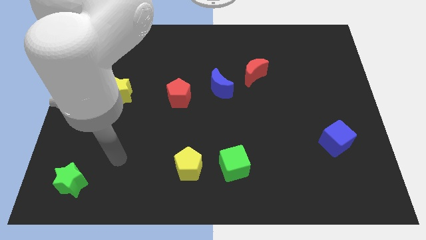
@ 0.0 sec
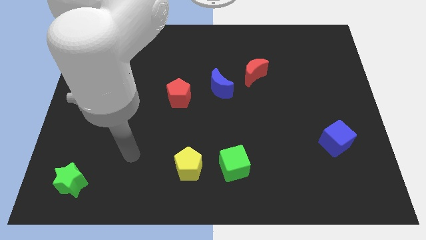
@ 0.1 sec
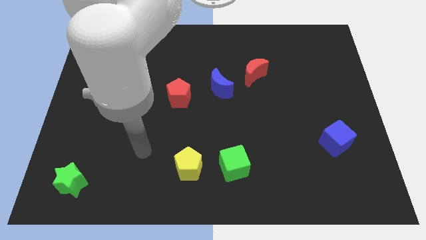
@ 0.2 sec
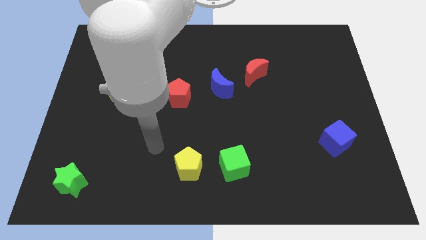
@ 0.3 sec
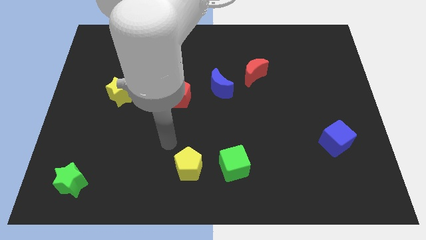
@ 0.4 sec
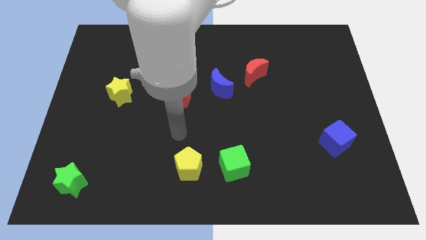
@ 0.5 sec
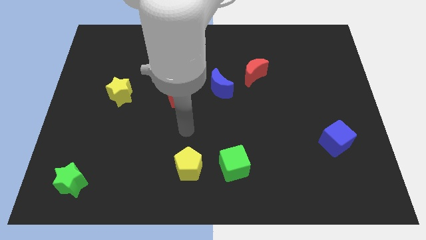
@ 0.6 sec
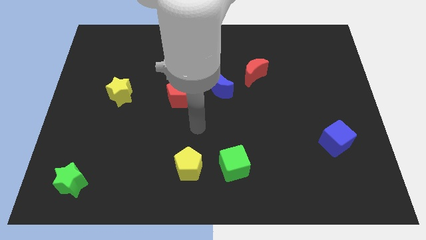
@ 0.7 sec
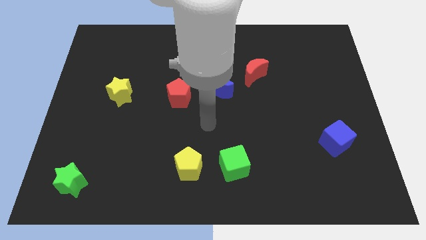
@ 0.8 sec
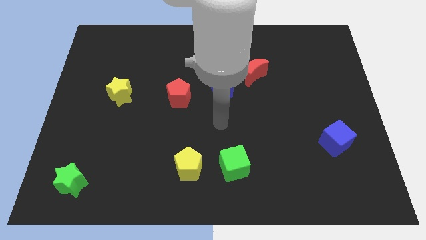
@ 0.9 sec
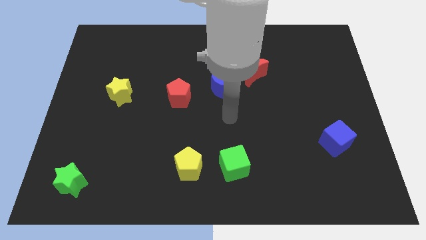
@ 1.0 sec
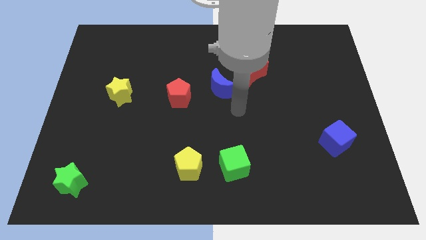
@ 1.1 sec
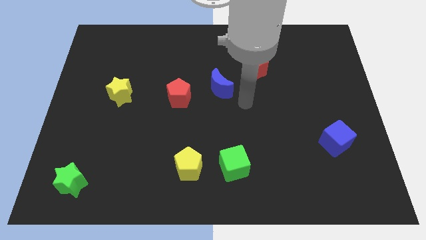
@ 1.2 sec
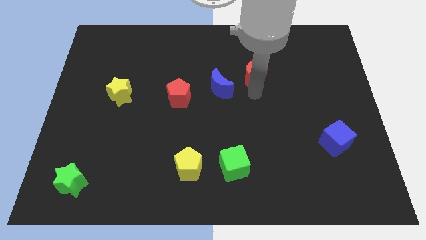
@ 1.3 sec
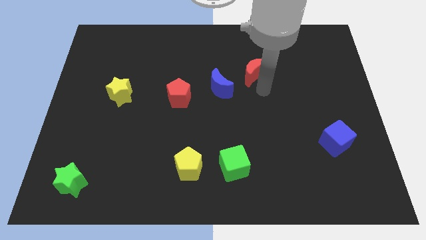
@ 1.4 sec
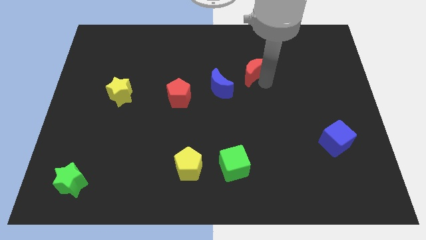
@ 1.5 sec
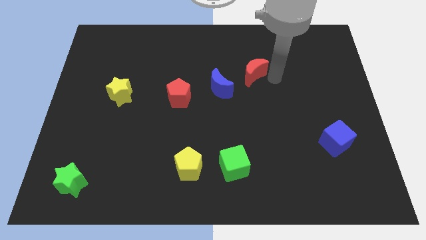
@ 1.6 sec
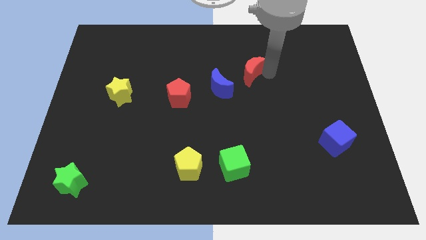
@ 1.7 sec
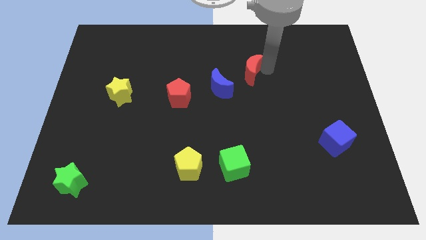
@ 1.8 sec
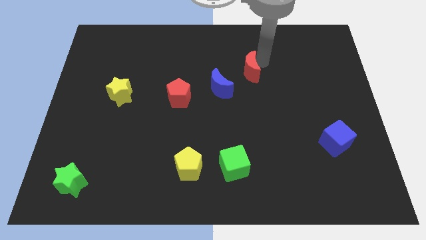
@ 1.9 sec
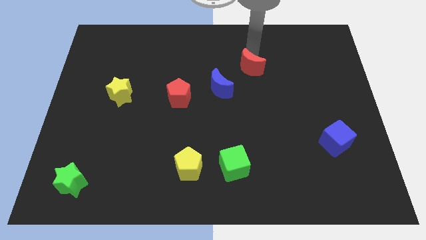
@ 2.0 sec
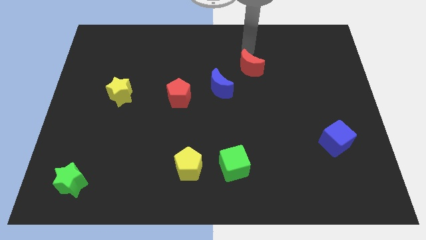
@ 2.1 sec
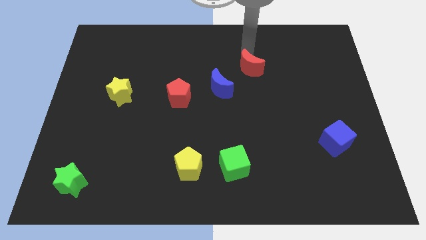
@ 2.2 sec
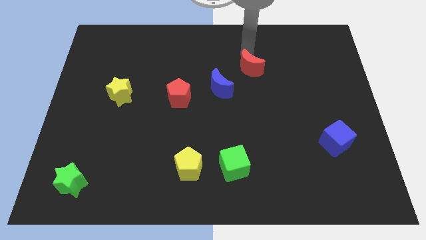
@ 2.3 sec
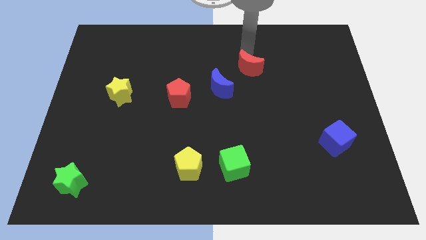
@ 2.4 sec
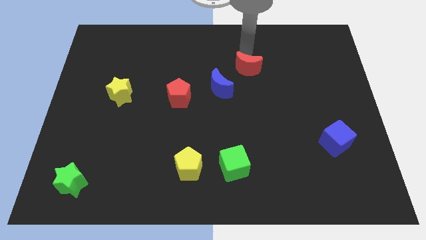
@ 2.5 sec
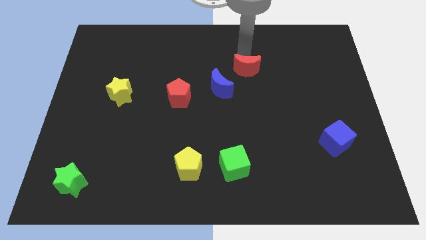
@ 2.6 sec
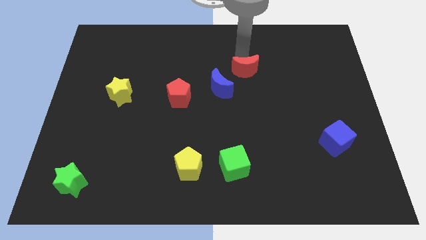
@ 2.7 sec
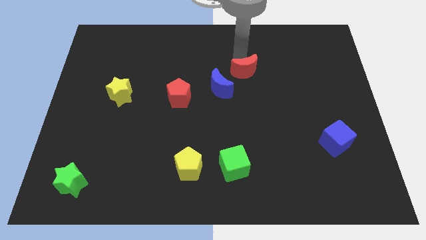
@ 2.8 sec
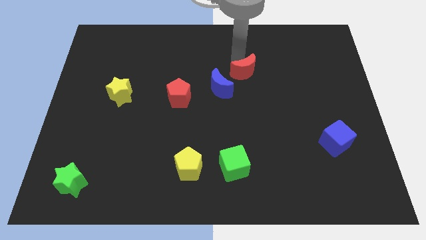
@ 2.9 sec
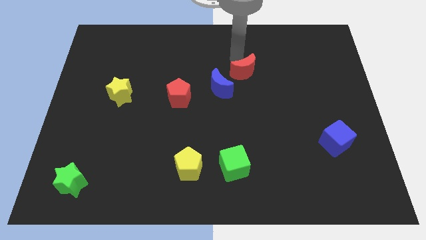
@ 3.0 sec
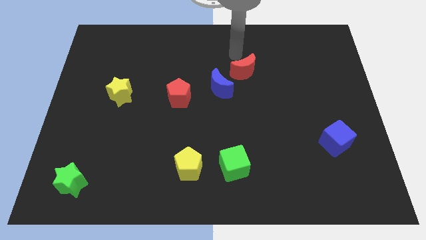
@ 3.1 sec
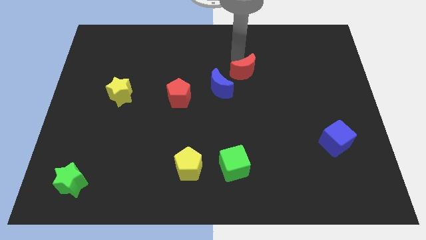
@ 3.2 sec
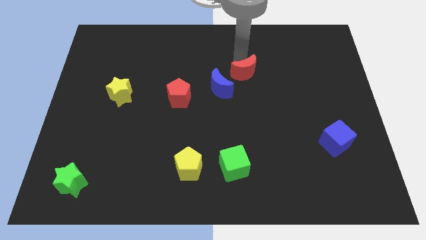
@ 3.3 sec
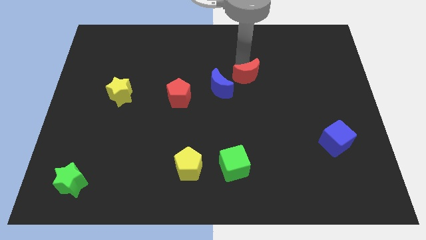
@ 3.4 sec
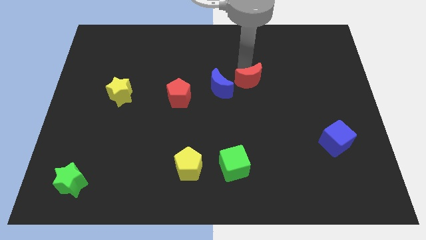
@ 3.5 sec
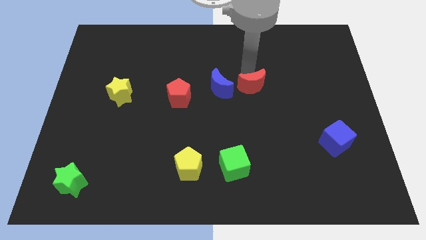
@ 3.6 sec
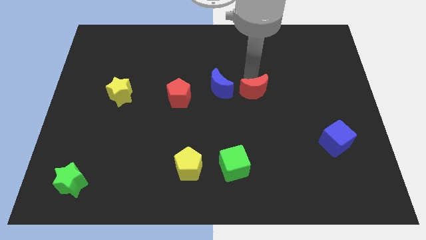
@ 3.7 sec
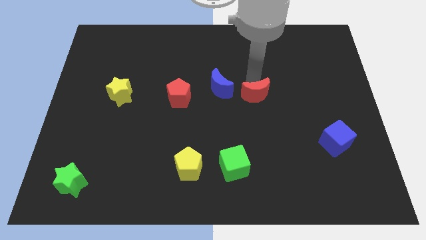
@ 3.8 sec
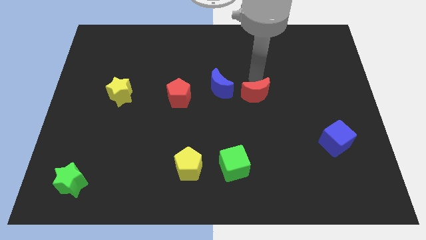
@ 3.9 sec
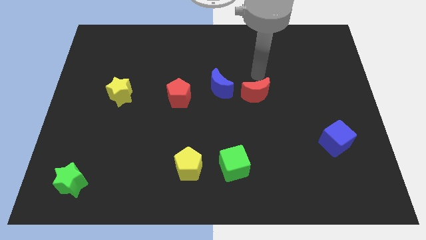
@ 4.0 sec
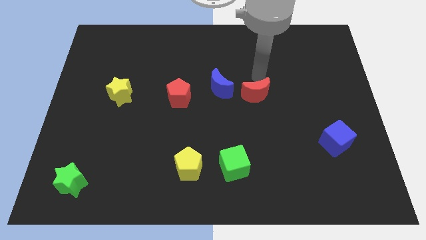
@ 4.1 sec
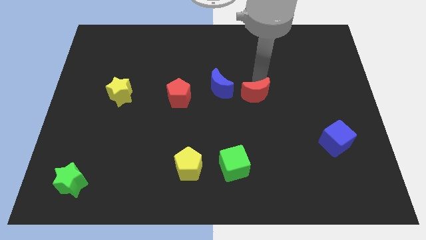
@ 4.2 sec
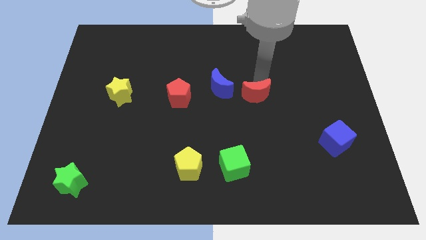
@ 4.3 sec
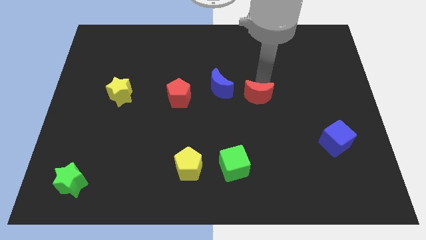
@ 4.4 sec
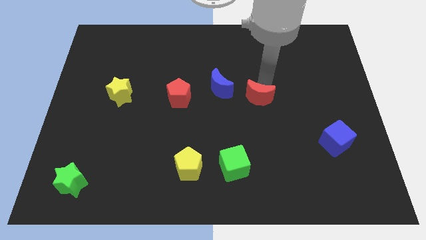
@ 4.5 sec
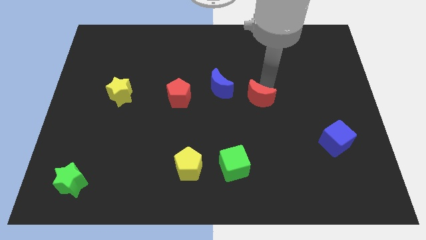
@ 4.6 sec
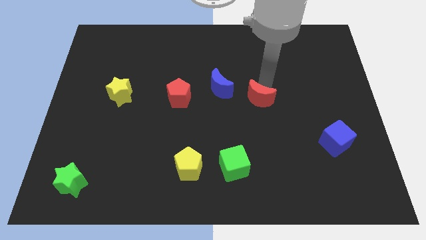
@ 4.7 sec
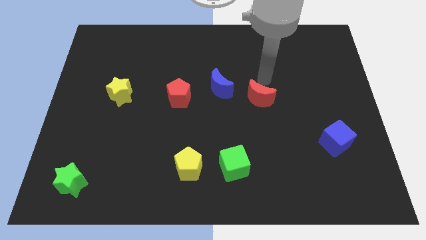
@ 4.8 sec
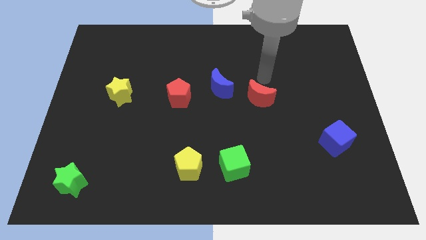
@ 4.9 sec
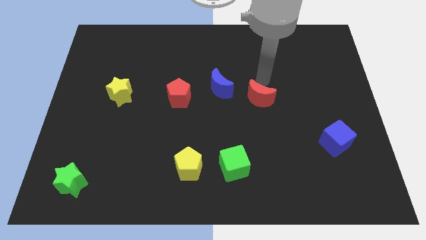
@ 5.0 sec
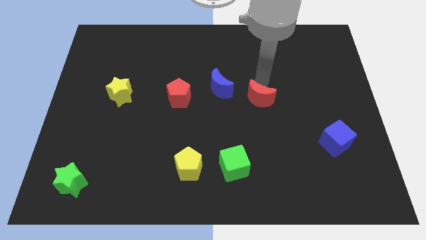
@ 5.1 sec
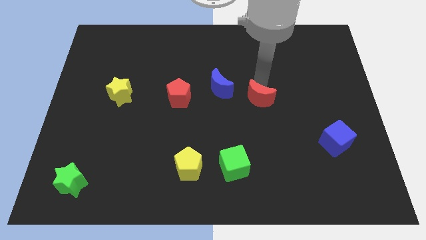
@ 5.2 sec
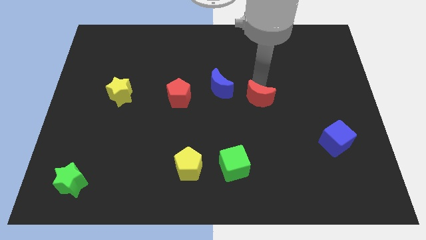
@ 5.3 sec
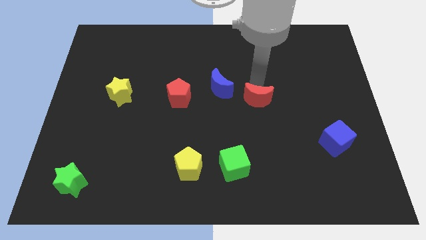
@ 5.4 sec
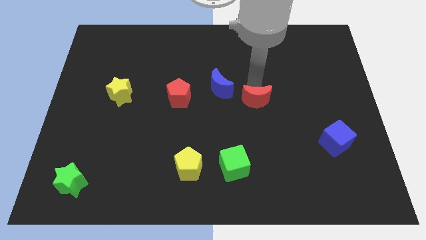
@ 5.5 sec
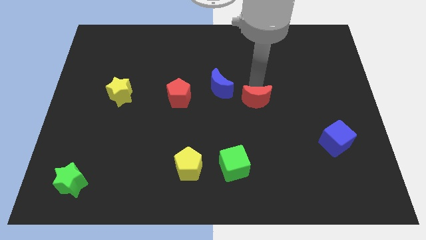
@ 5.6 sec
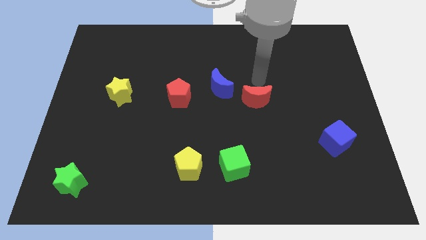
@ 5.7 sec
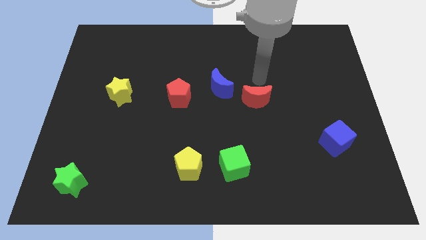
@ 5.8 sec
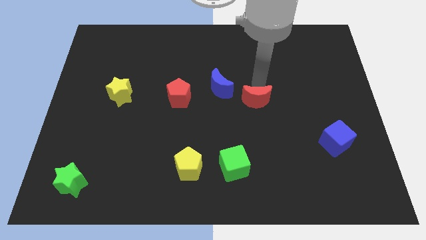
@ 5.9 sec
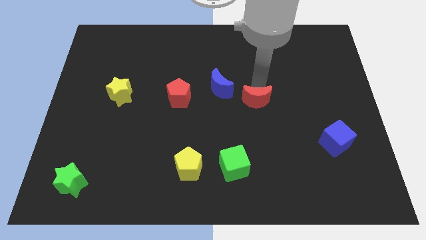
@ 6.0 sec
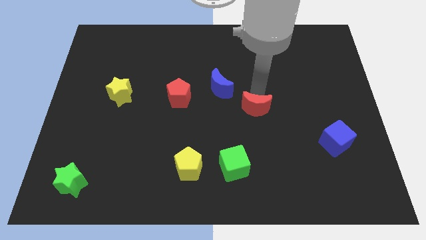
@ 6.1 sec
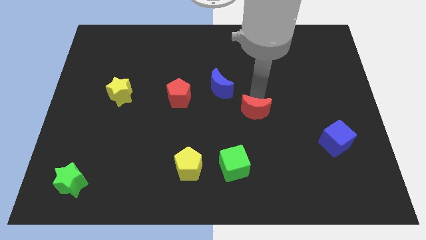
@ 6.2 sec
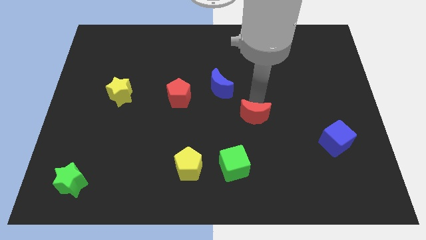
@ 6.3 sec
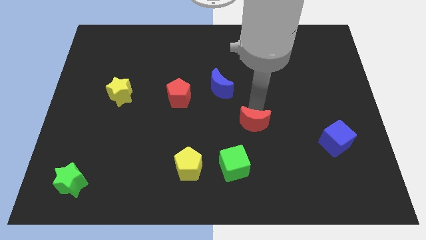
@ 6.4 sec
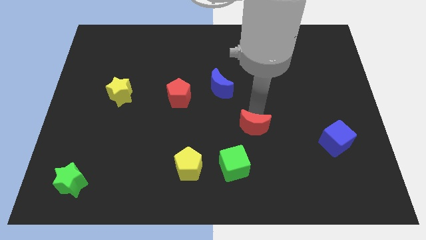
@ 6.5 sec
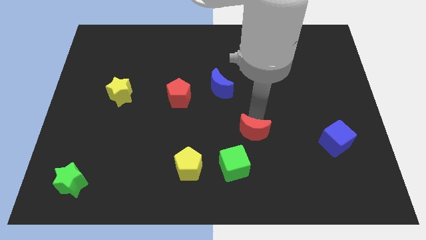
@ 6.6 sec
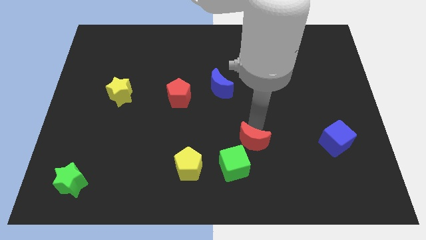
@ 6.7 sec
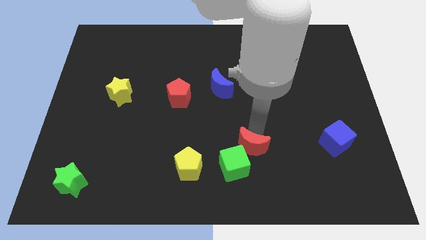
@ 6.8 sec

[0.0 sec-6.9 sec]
slide the red moon close to the green cube
